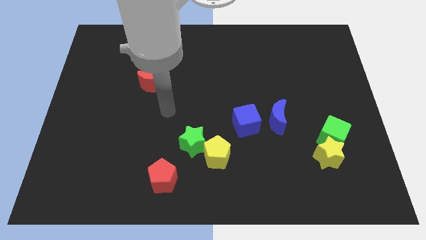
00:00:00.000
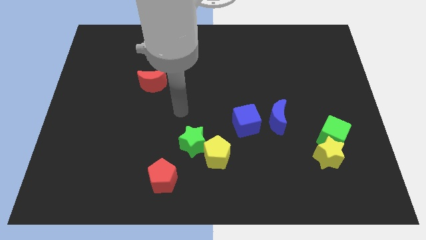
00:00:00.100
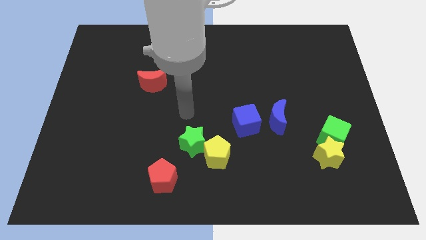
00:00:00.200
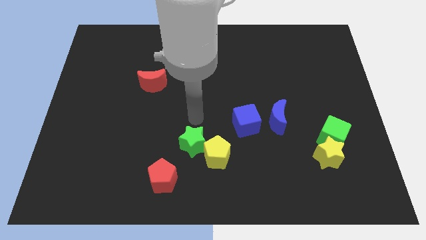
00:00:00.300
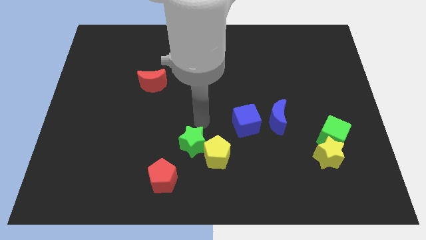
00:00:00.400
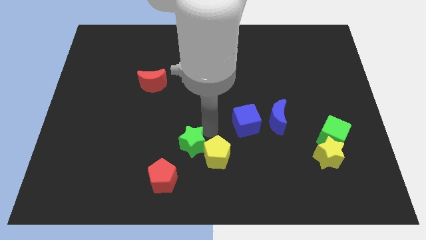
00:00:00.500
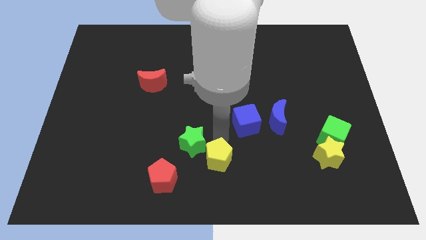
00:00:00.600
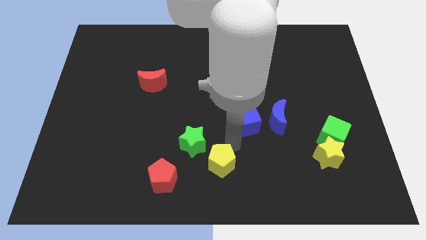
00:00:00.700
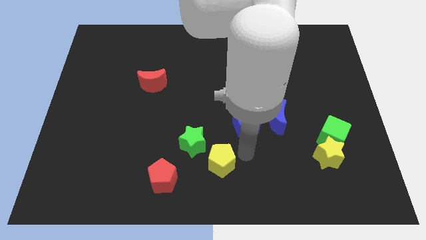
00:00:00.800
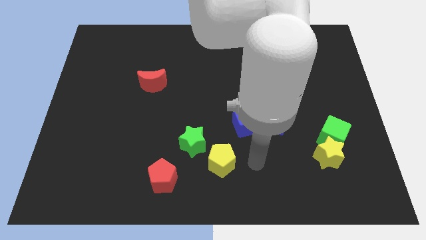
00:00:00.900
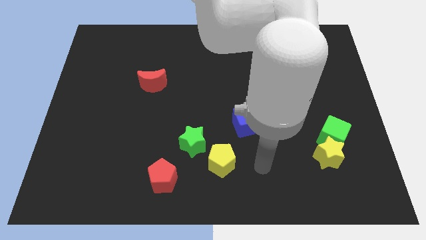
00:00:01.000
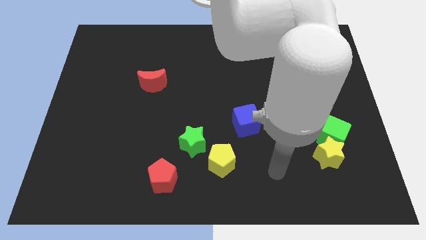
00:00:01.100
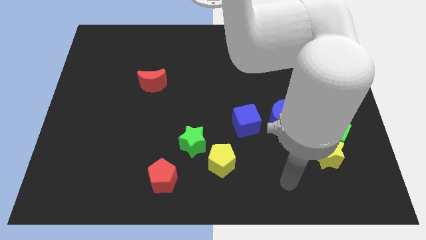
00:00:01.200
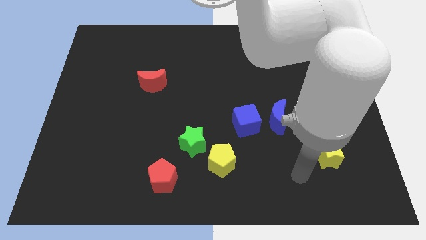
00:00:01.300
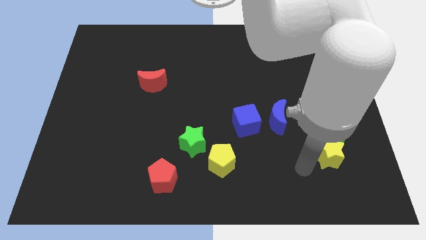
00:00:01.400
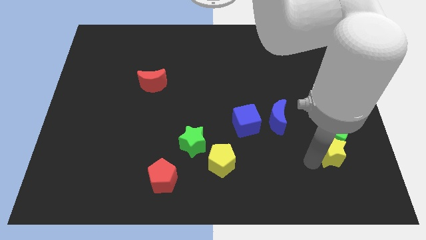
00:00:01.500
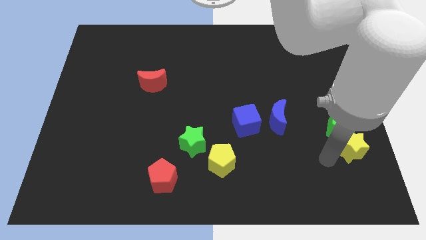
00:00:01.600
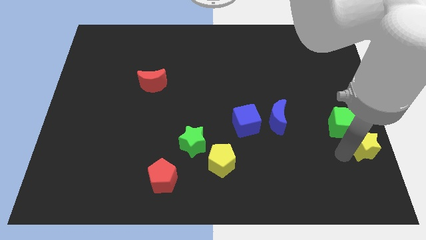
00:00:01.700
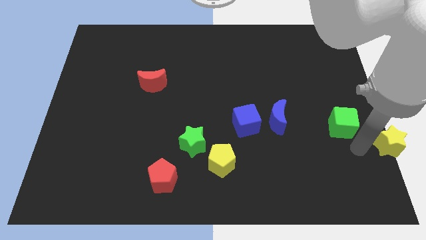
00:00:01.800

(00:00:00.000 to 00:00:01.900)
pull the green cube apart from the yellow star

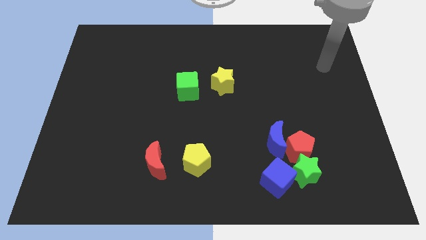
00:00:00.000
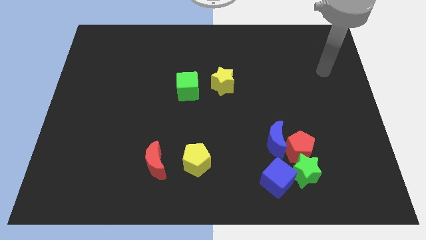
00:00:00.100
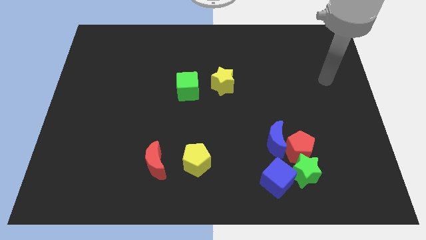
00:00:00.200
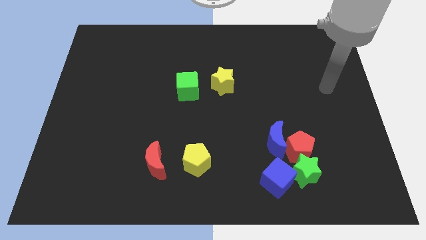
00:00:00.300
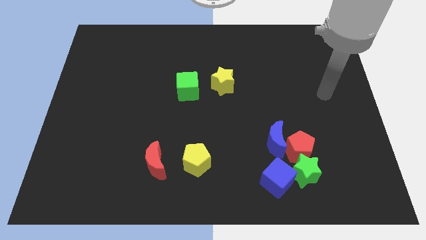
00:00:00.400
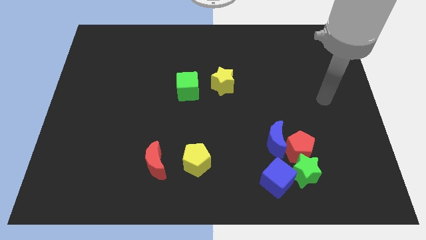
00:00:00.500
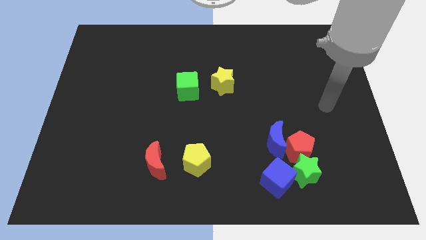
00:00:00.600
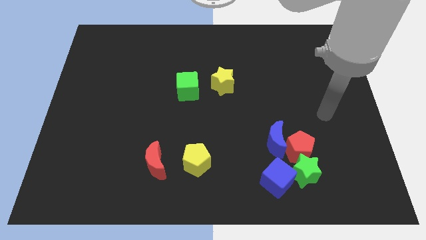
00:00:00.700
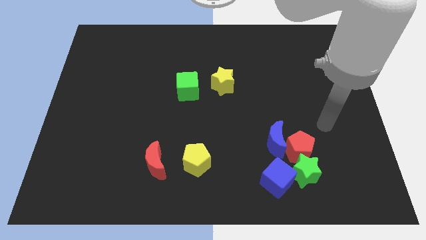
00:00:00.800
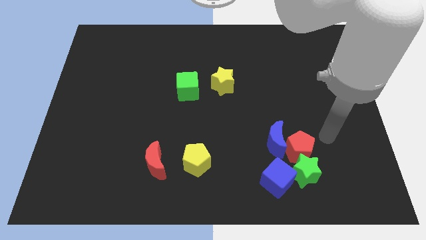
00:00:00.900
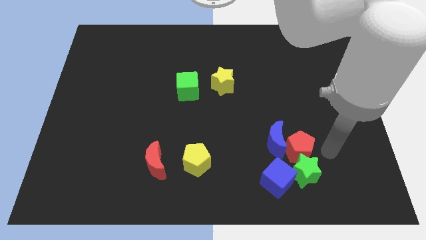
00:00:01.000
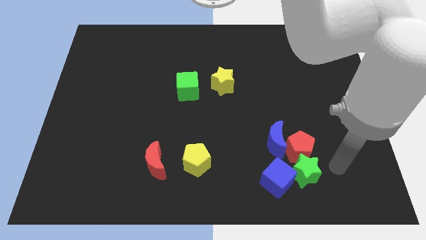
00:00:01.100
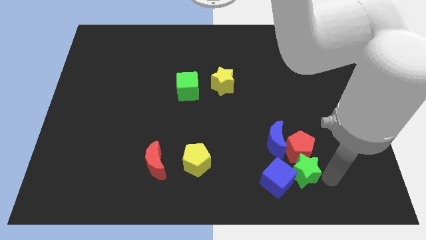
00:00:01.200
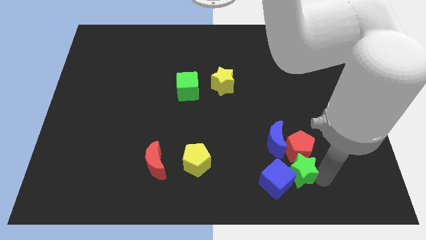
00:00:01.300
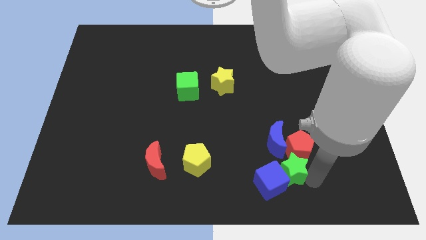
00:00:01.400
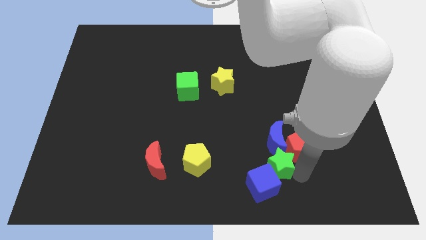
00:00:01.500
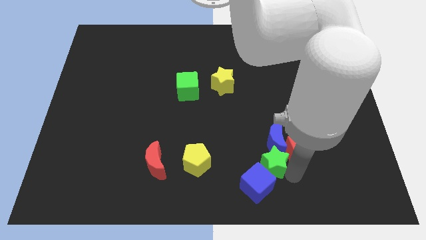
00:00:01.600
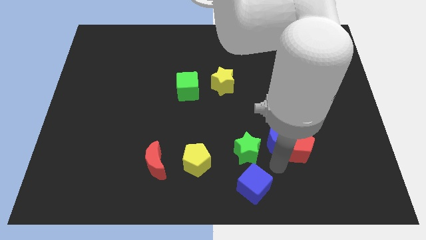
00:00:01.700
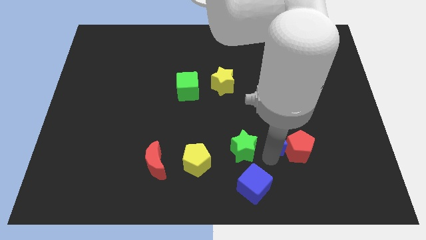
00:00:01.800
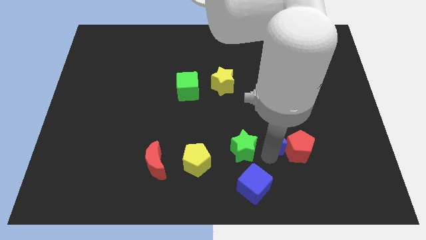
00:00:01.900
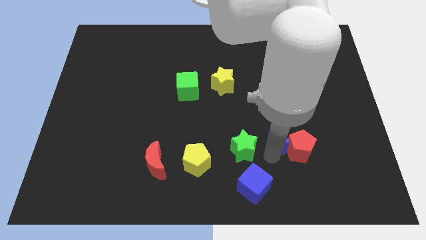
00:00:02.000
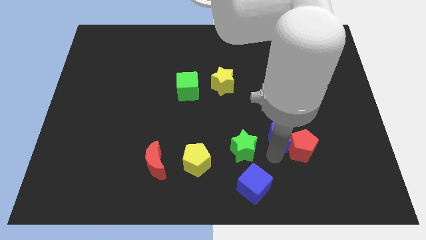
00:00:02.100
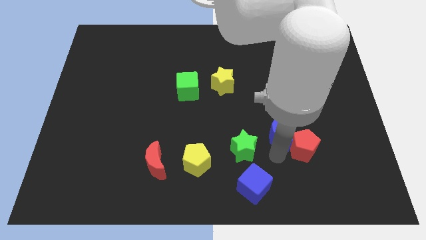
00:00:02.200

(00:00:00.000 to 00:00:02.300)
separate the red pentagon from the blue moon, green star, and blue cube

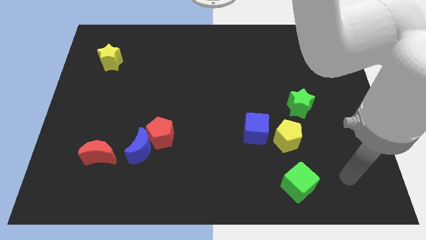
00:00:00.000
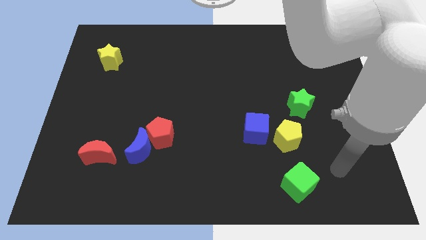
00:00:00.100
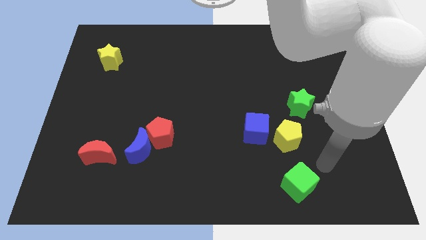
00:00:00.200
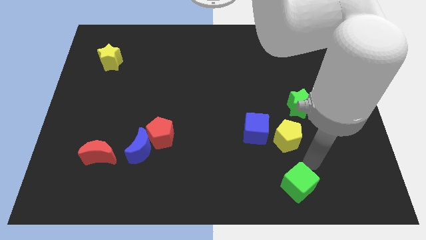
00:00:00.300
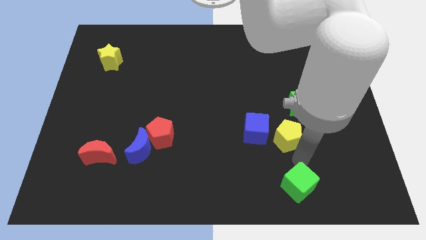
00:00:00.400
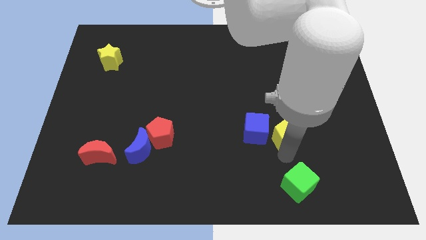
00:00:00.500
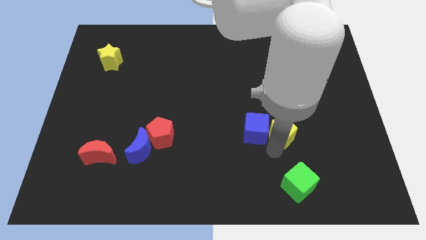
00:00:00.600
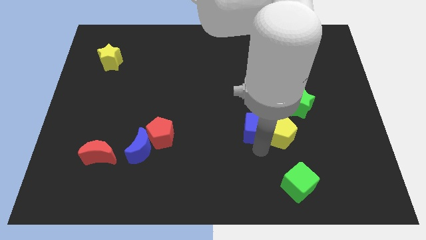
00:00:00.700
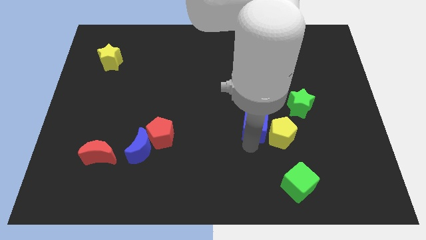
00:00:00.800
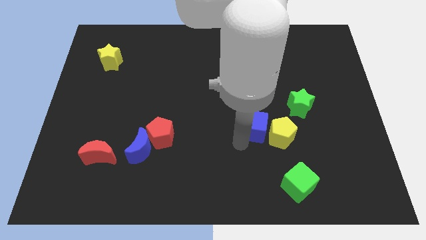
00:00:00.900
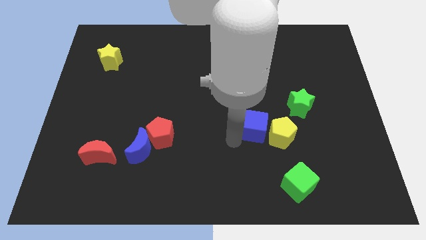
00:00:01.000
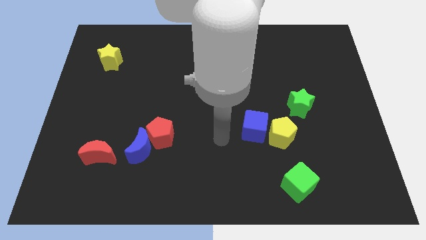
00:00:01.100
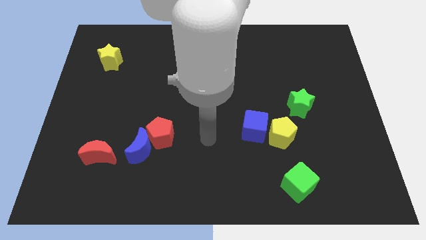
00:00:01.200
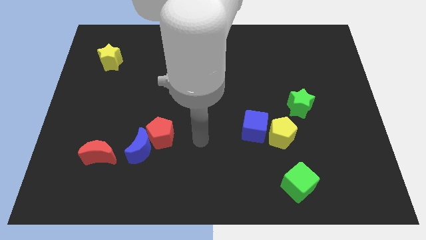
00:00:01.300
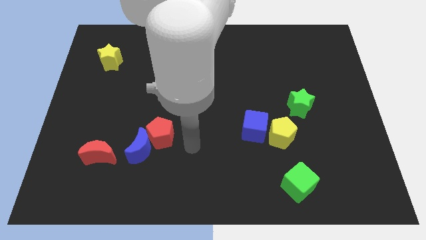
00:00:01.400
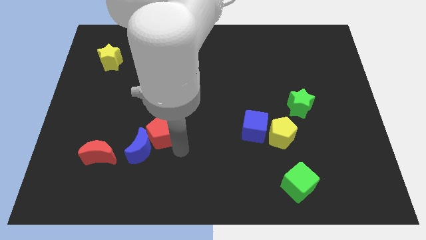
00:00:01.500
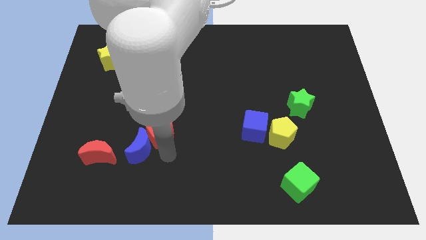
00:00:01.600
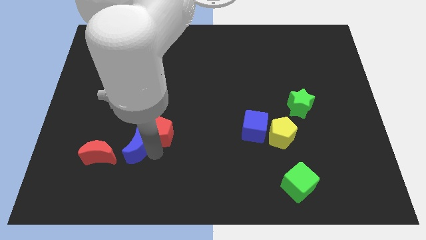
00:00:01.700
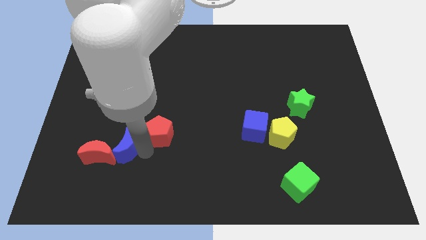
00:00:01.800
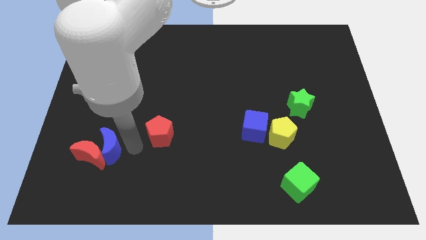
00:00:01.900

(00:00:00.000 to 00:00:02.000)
move the red pentagon away from the blue moon

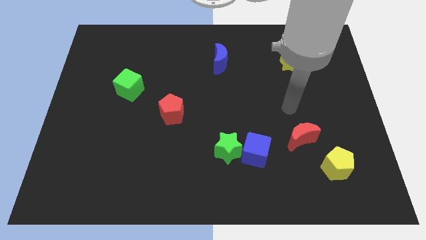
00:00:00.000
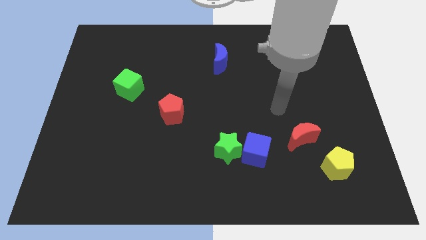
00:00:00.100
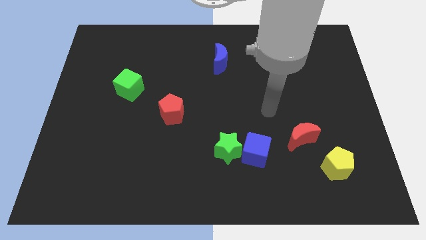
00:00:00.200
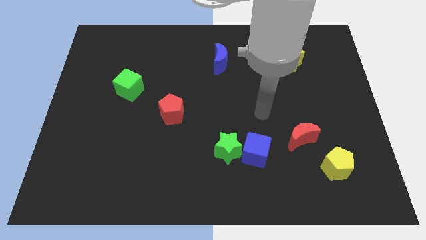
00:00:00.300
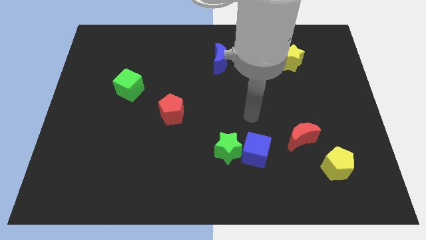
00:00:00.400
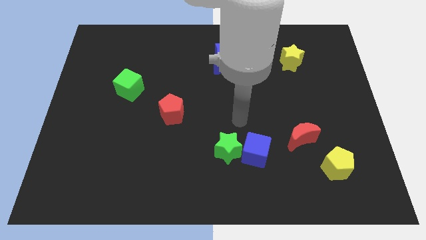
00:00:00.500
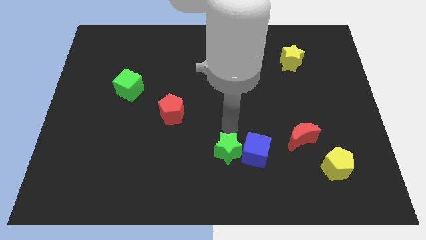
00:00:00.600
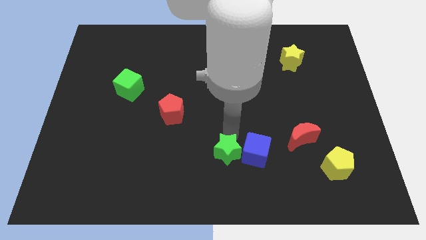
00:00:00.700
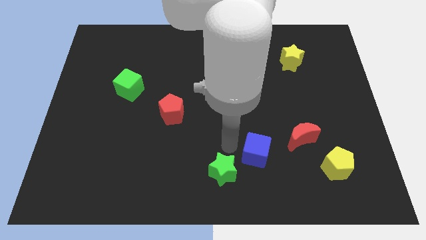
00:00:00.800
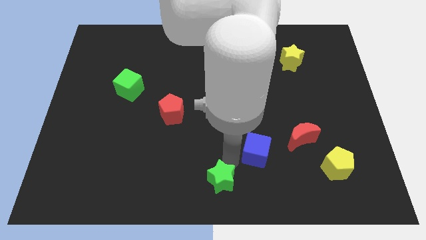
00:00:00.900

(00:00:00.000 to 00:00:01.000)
pull the blue cube apart from the green star

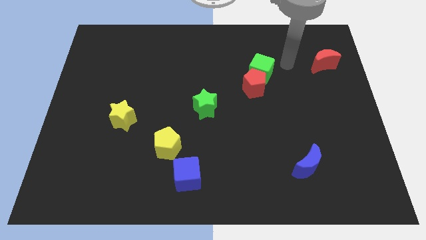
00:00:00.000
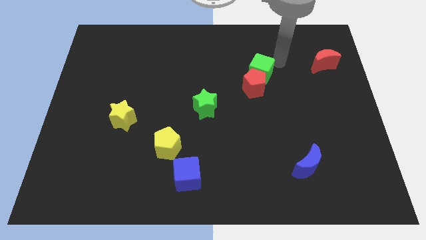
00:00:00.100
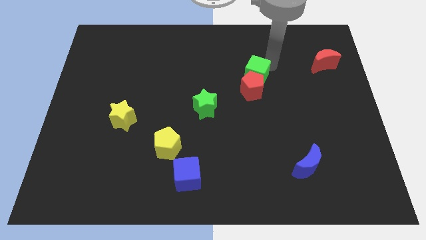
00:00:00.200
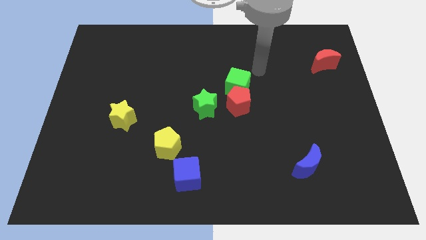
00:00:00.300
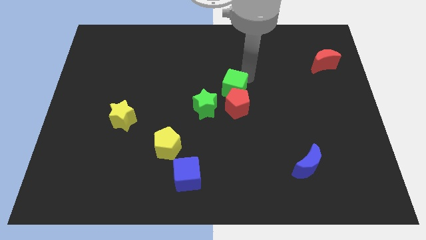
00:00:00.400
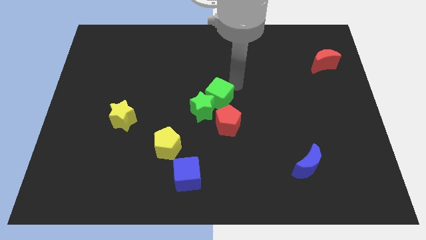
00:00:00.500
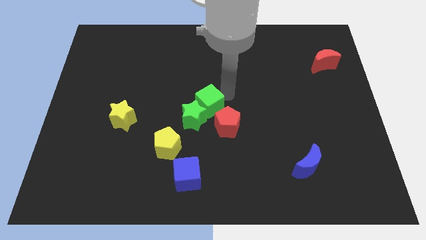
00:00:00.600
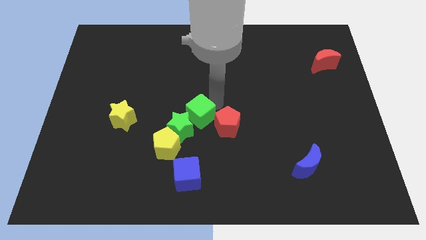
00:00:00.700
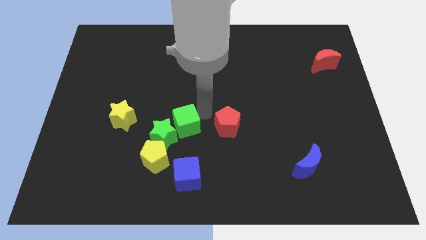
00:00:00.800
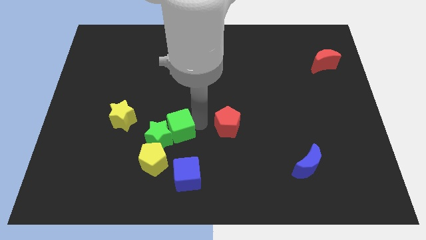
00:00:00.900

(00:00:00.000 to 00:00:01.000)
move the red pentagon away from the green cube

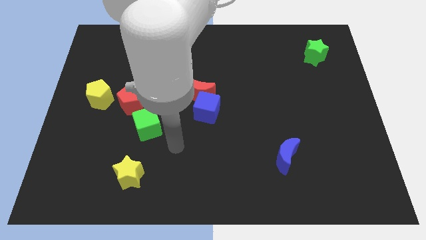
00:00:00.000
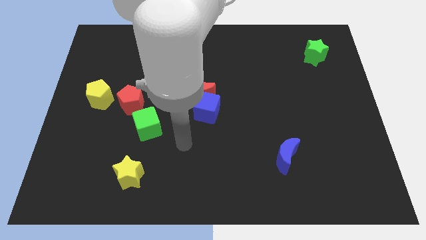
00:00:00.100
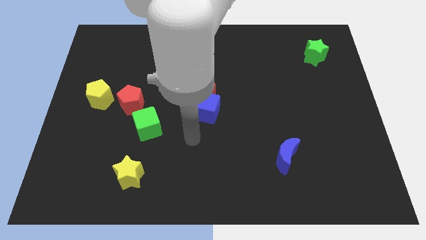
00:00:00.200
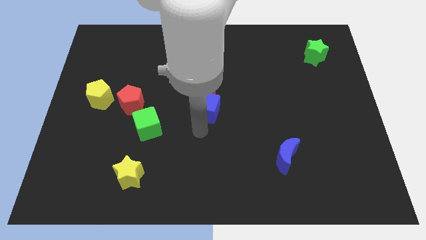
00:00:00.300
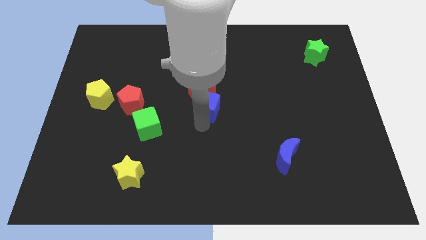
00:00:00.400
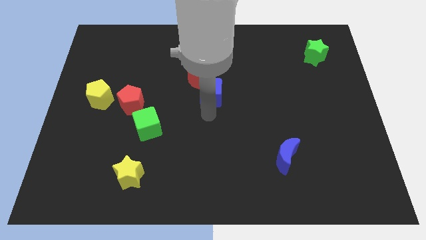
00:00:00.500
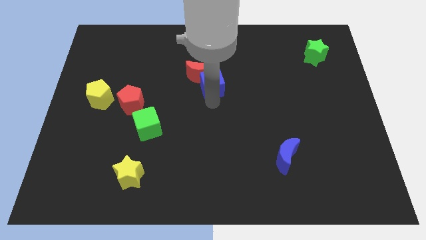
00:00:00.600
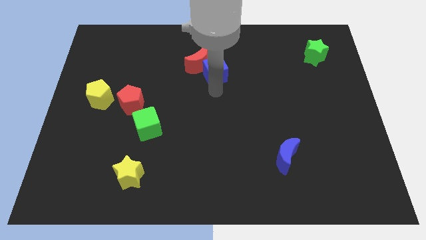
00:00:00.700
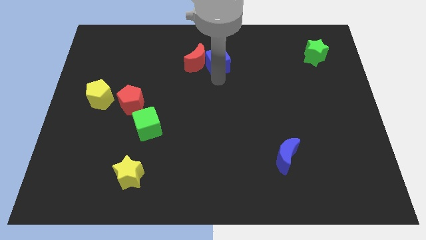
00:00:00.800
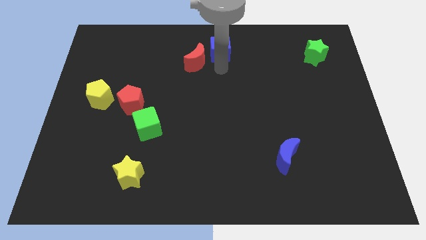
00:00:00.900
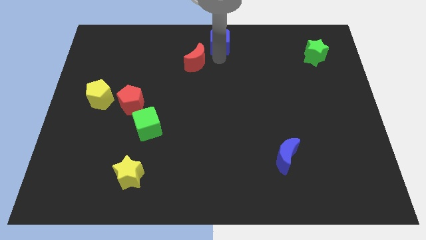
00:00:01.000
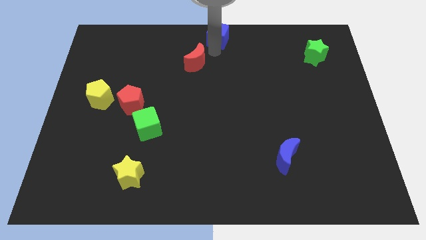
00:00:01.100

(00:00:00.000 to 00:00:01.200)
separate the red moon from the blue cube

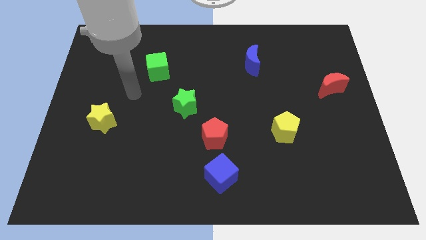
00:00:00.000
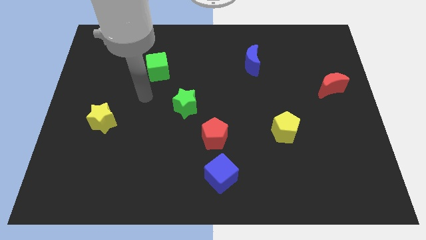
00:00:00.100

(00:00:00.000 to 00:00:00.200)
separate the red pentagon from the blue cube
